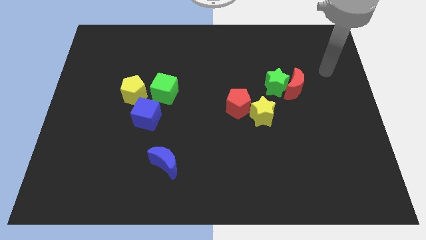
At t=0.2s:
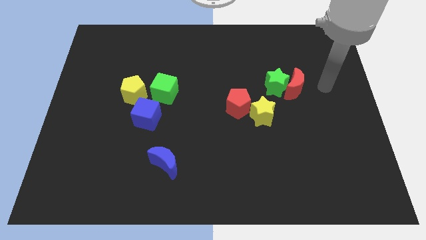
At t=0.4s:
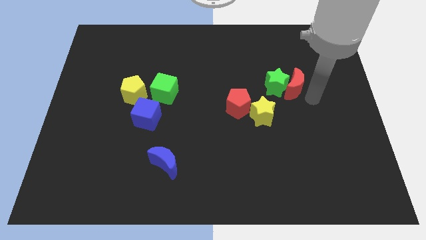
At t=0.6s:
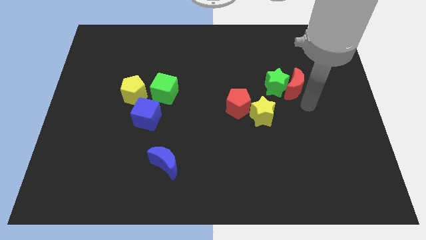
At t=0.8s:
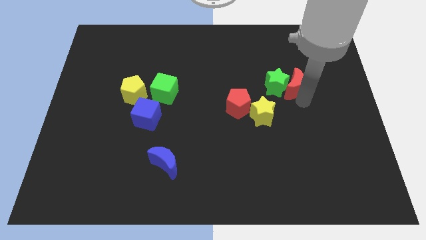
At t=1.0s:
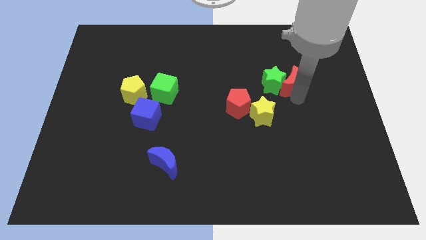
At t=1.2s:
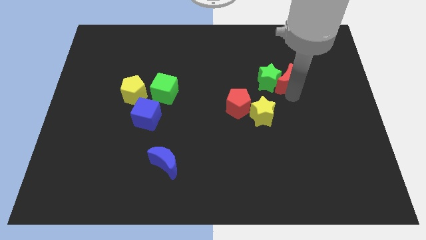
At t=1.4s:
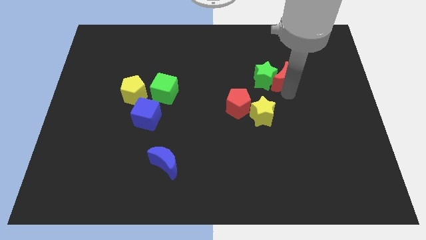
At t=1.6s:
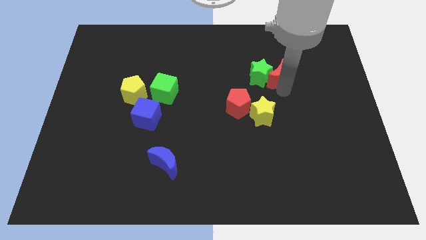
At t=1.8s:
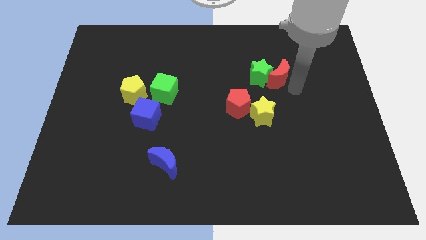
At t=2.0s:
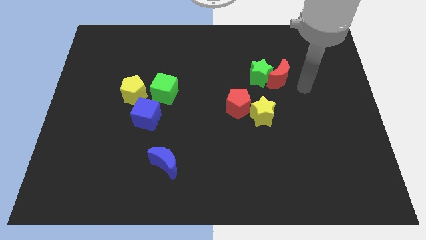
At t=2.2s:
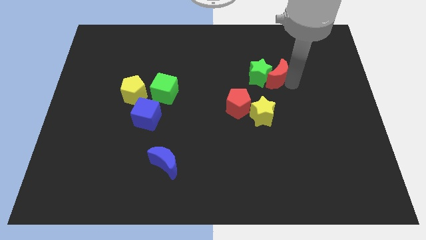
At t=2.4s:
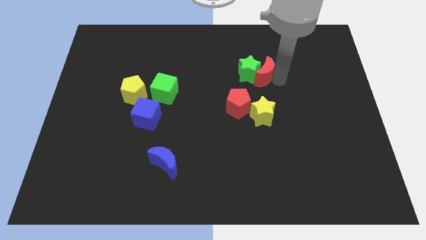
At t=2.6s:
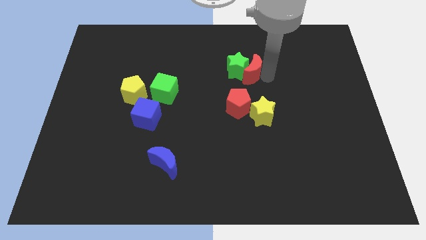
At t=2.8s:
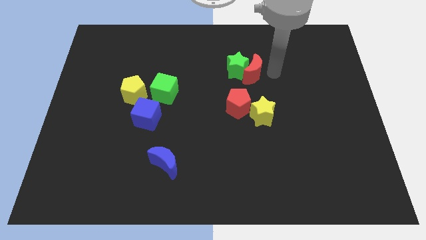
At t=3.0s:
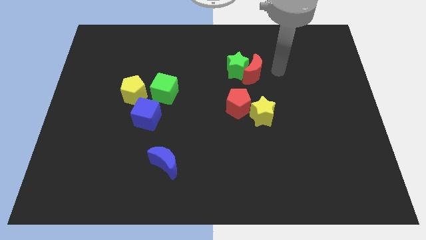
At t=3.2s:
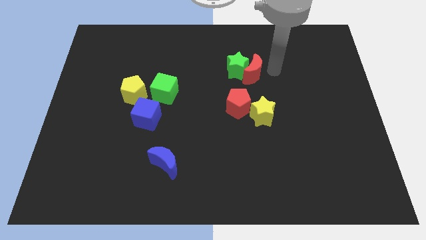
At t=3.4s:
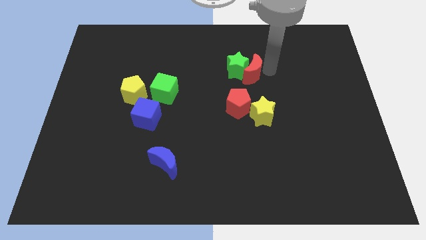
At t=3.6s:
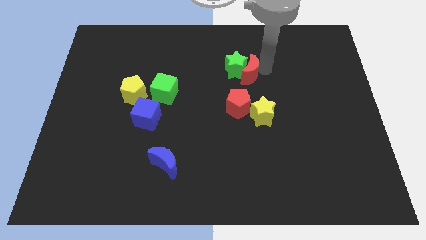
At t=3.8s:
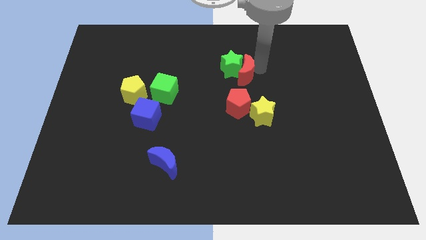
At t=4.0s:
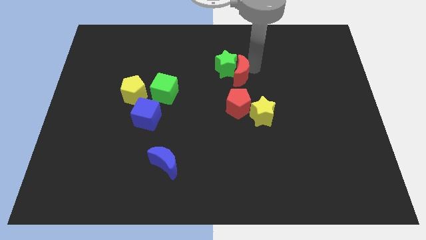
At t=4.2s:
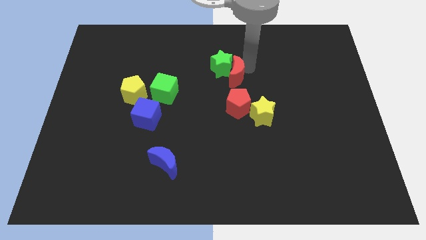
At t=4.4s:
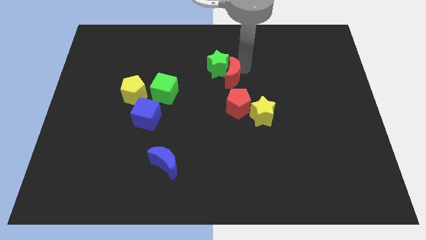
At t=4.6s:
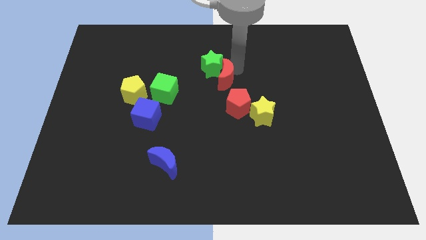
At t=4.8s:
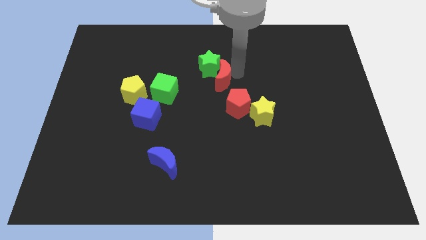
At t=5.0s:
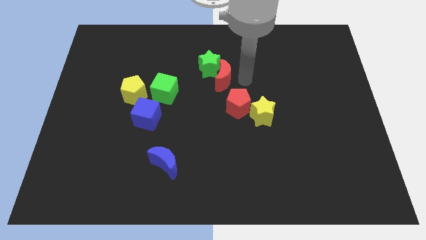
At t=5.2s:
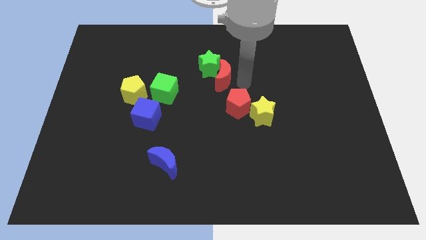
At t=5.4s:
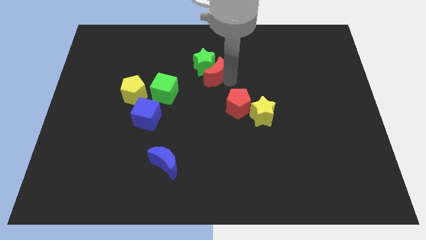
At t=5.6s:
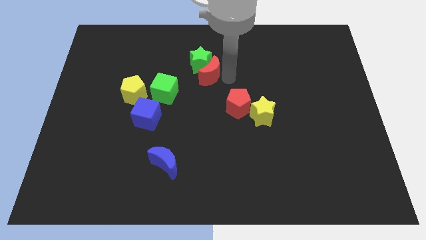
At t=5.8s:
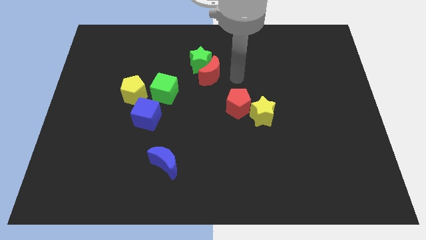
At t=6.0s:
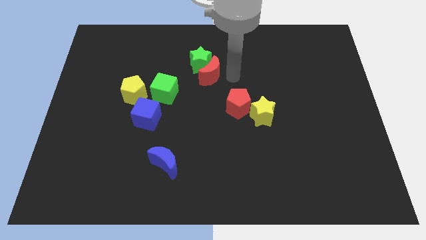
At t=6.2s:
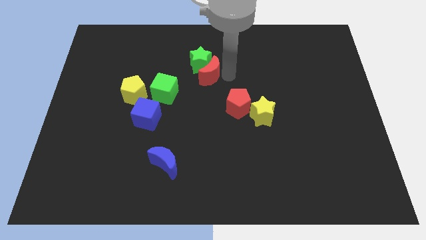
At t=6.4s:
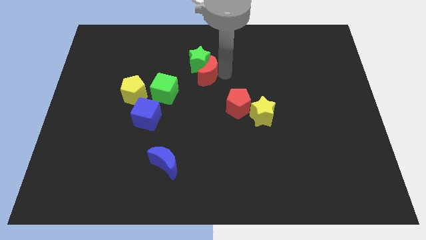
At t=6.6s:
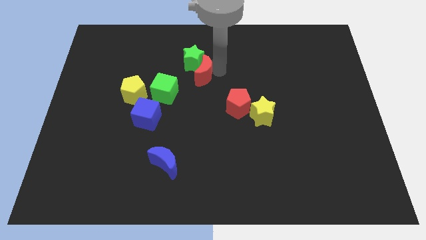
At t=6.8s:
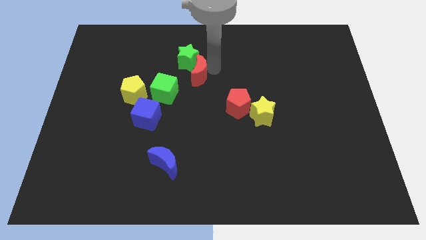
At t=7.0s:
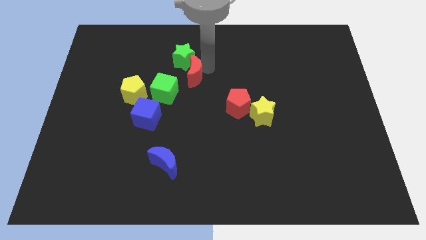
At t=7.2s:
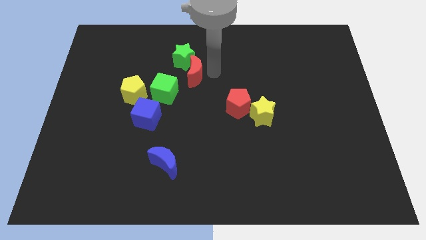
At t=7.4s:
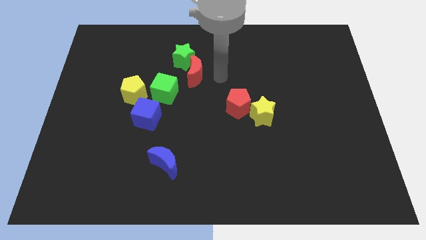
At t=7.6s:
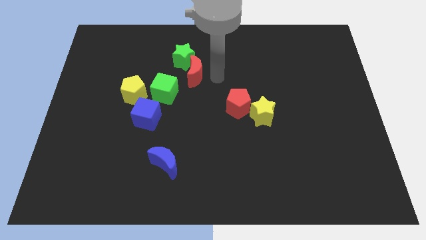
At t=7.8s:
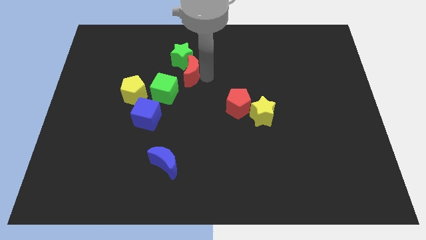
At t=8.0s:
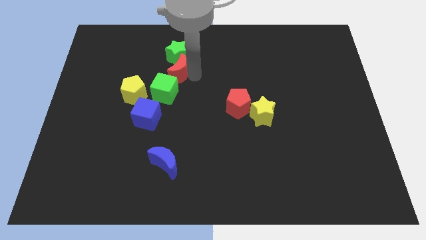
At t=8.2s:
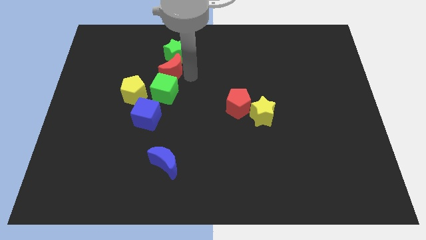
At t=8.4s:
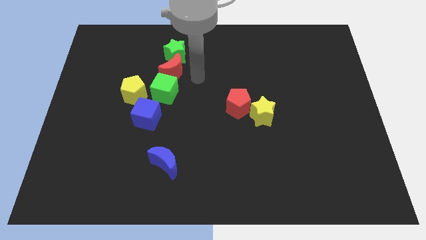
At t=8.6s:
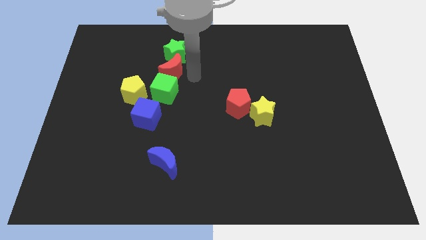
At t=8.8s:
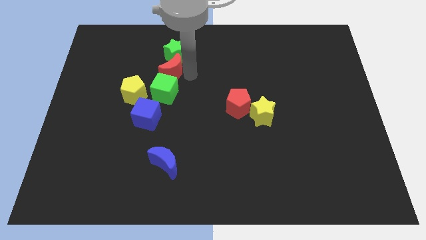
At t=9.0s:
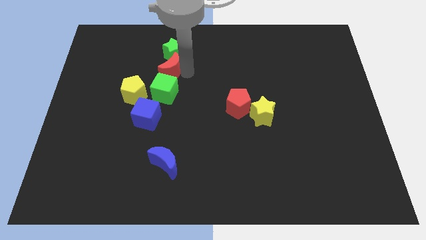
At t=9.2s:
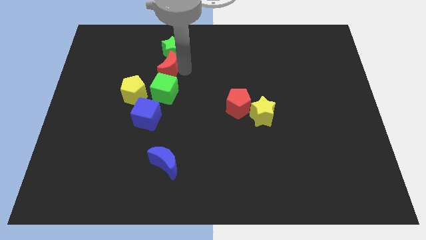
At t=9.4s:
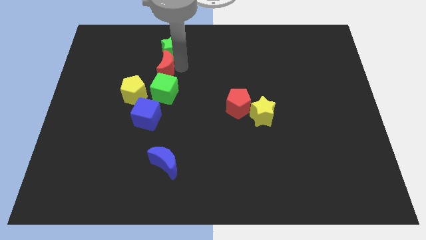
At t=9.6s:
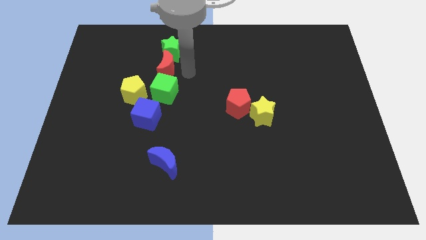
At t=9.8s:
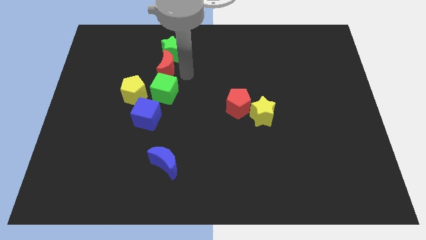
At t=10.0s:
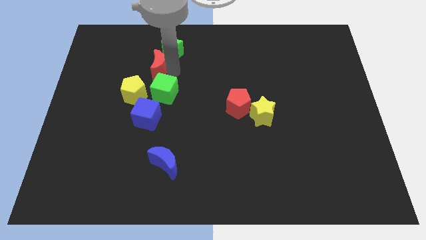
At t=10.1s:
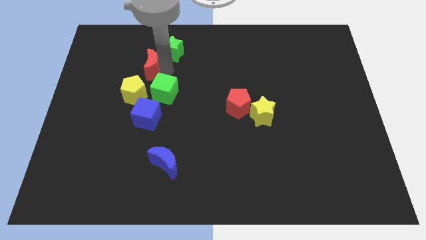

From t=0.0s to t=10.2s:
push the red moon to the top of the yellow pentagon

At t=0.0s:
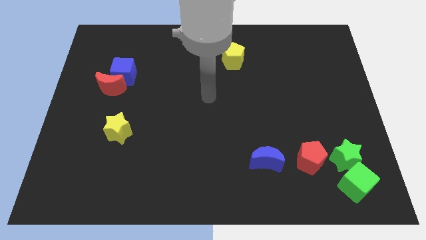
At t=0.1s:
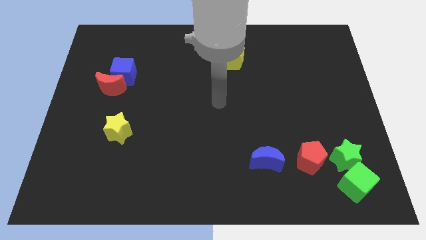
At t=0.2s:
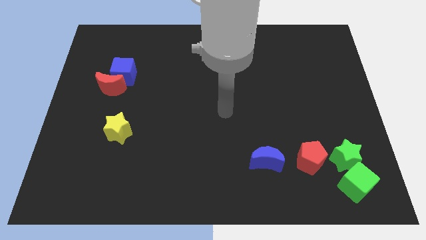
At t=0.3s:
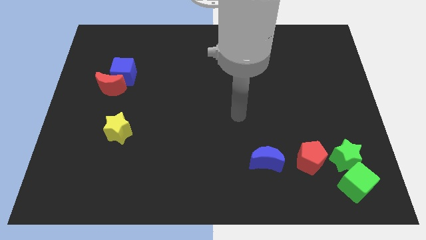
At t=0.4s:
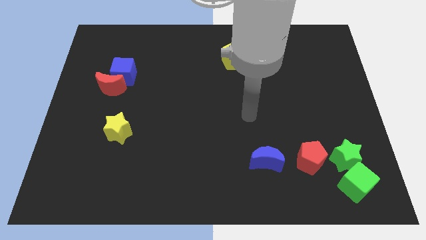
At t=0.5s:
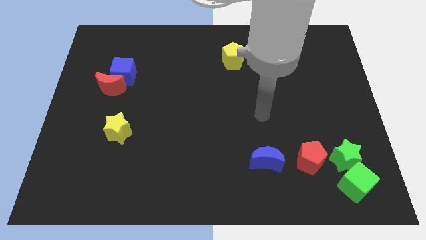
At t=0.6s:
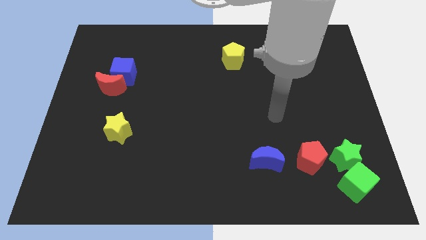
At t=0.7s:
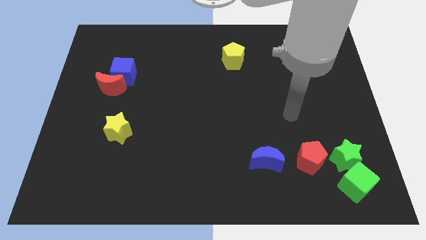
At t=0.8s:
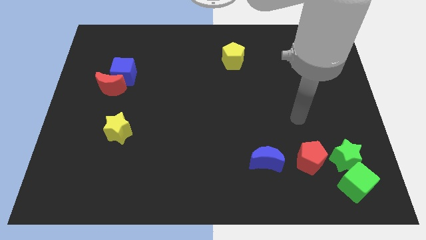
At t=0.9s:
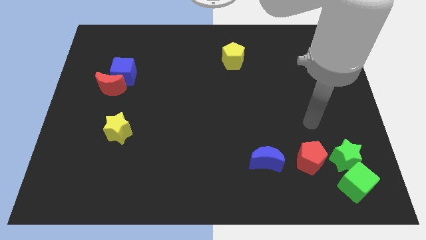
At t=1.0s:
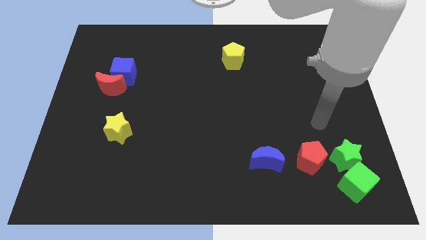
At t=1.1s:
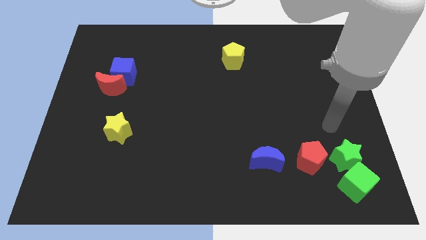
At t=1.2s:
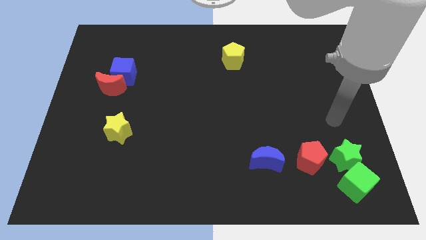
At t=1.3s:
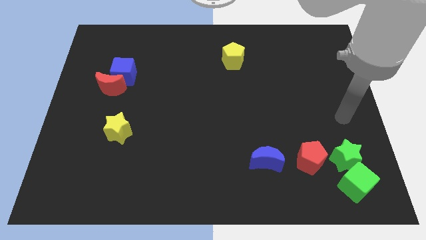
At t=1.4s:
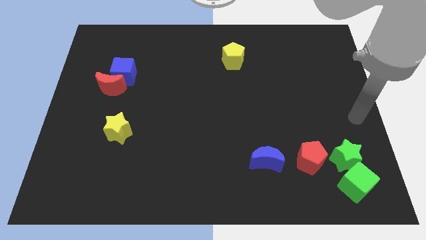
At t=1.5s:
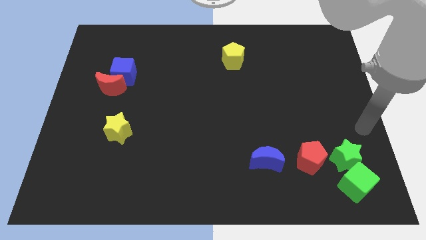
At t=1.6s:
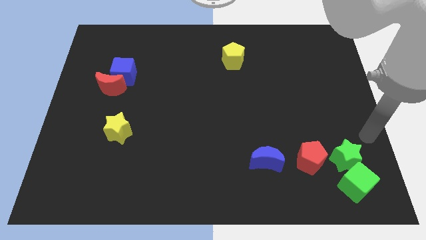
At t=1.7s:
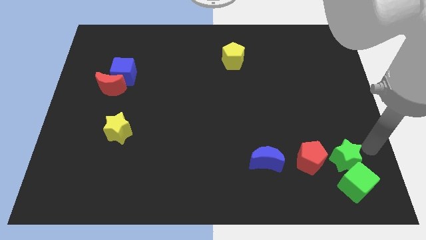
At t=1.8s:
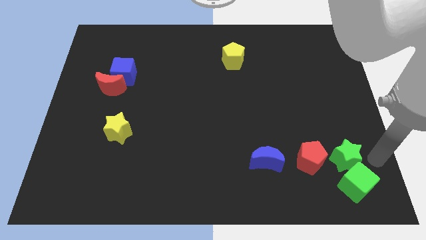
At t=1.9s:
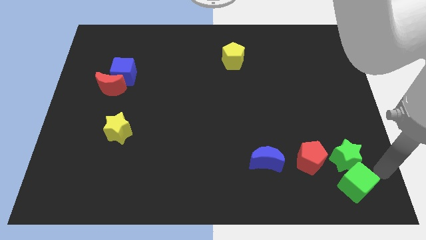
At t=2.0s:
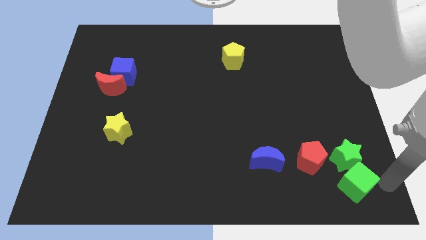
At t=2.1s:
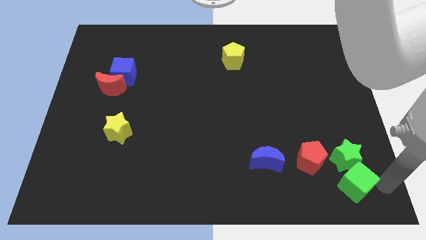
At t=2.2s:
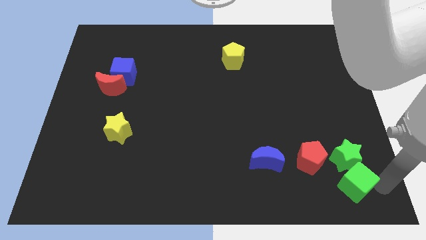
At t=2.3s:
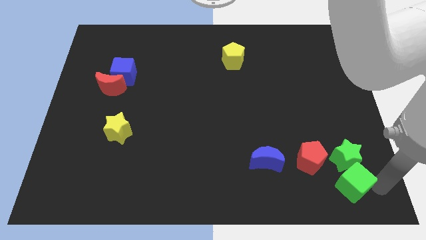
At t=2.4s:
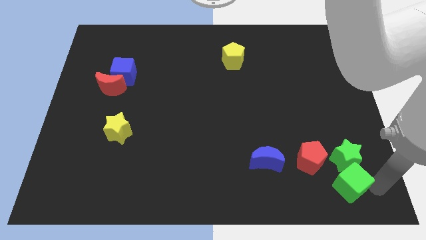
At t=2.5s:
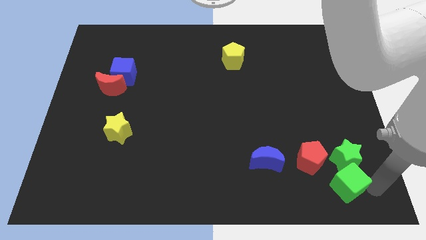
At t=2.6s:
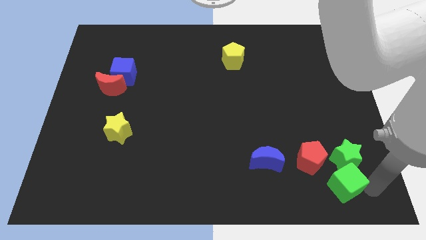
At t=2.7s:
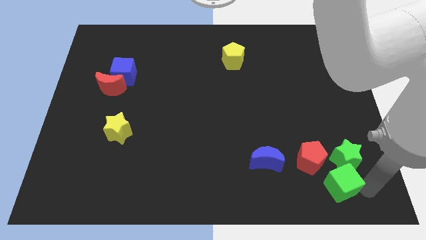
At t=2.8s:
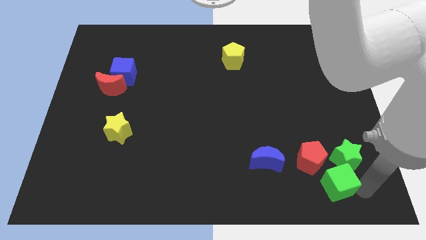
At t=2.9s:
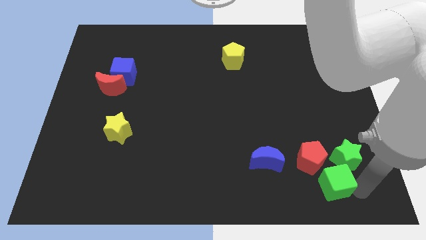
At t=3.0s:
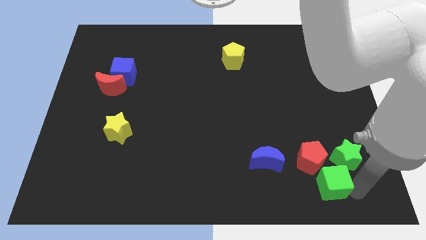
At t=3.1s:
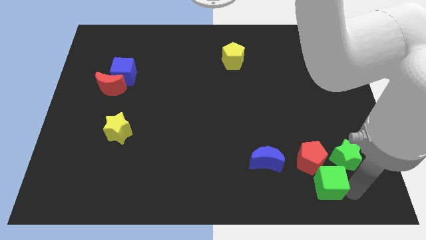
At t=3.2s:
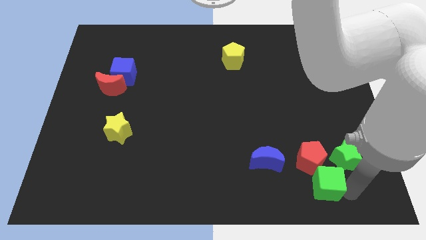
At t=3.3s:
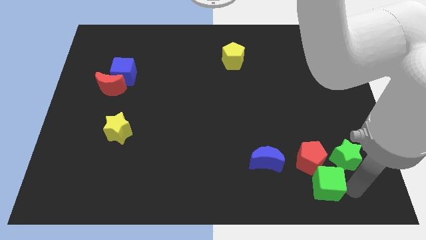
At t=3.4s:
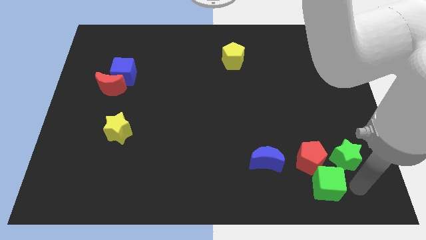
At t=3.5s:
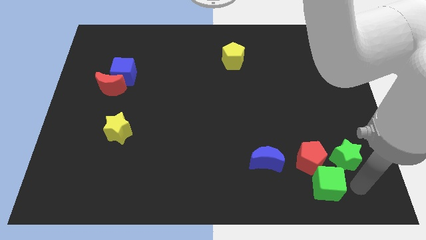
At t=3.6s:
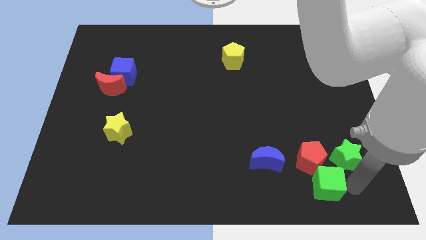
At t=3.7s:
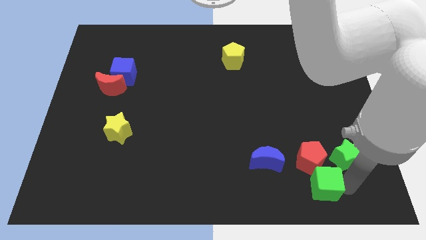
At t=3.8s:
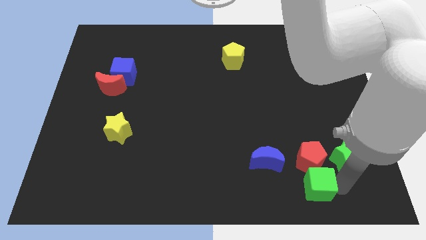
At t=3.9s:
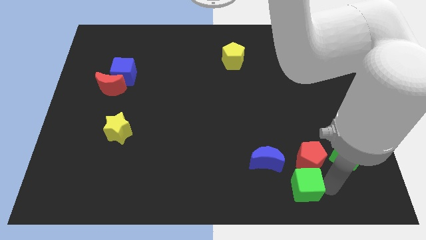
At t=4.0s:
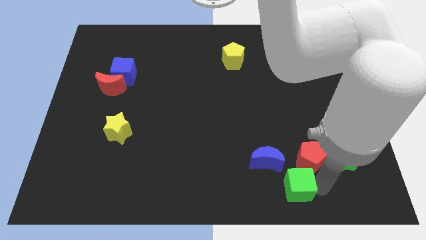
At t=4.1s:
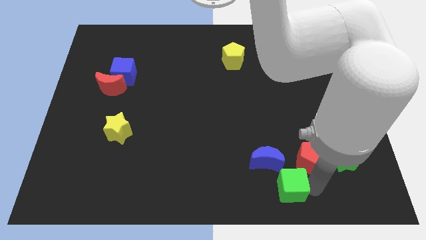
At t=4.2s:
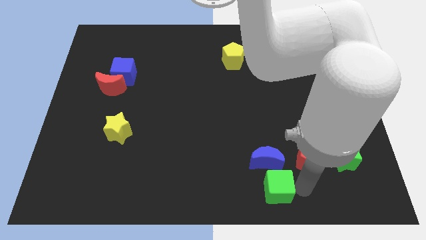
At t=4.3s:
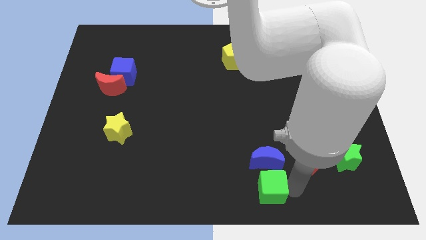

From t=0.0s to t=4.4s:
move the green cube diagonally down and to the left of the blue moon
